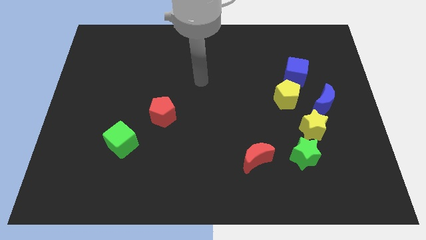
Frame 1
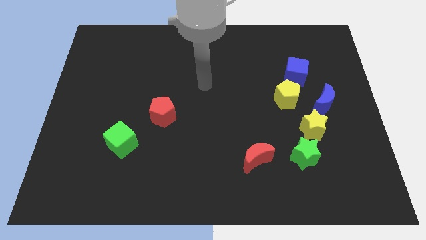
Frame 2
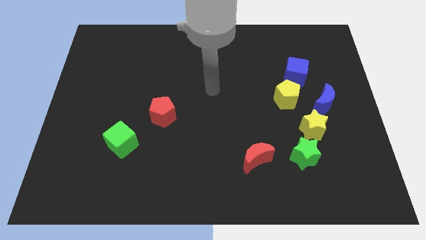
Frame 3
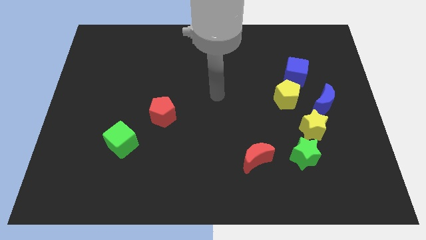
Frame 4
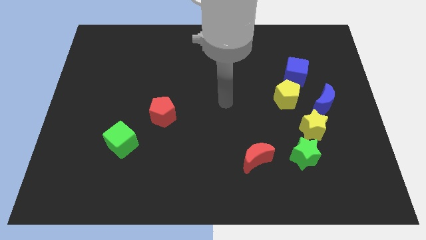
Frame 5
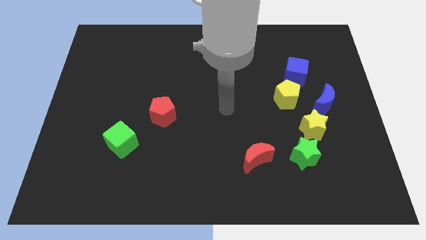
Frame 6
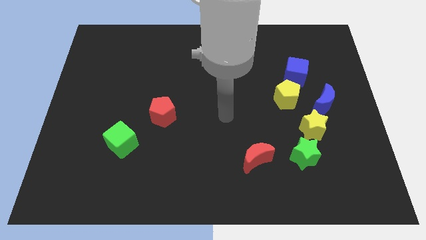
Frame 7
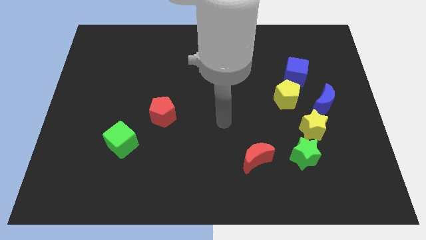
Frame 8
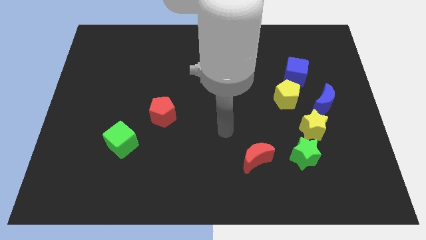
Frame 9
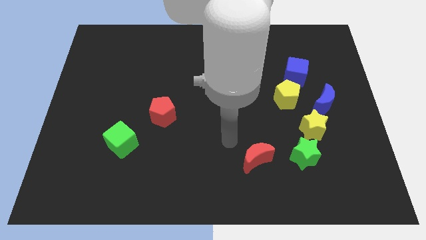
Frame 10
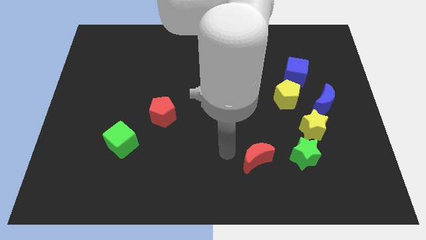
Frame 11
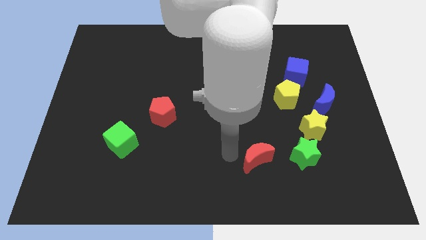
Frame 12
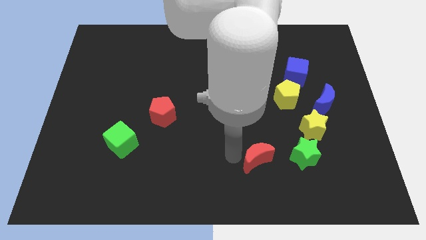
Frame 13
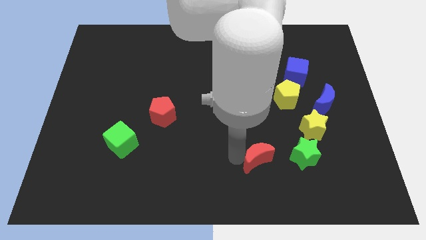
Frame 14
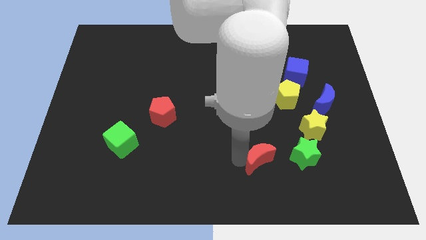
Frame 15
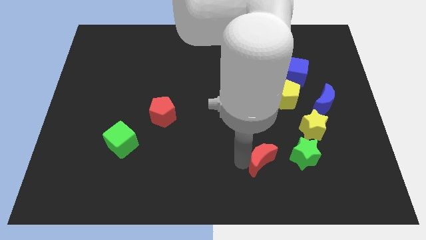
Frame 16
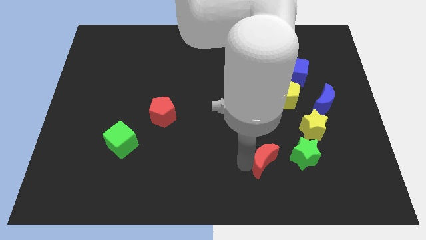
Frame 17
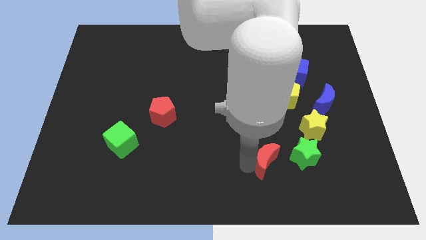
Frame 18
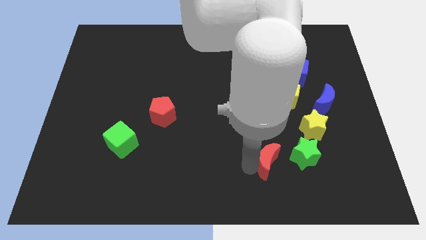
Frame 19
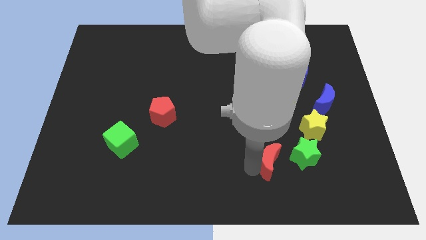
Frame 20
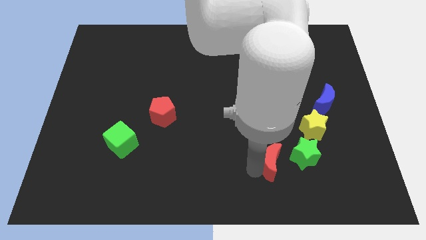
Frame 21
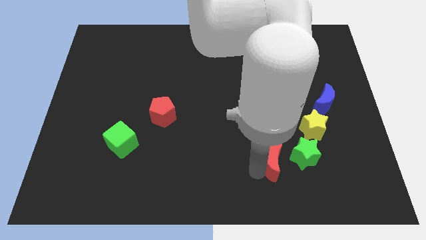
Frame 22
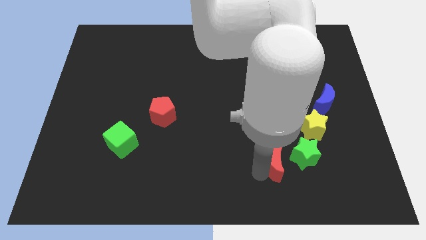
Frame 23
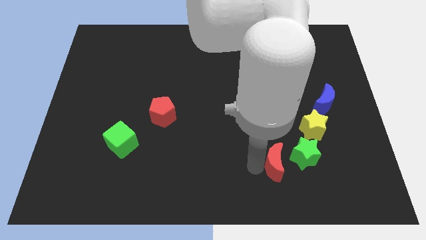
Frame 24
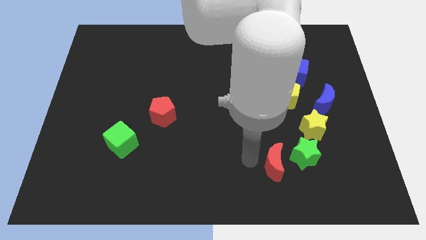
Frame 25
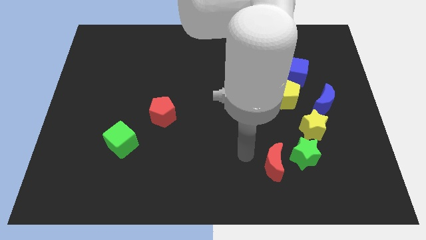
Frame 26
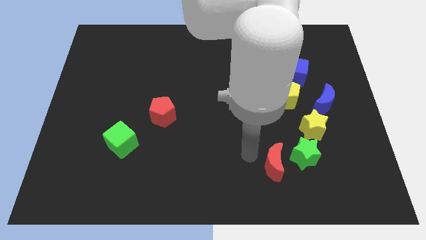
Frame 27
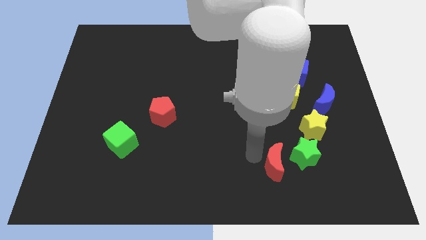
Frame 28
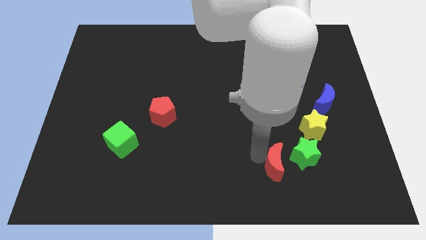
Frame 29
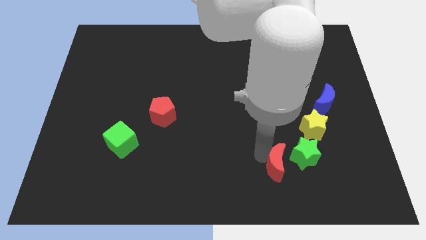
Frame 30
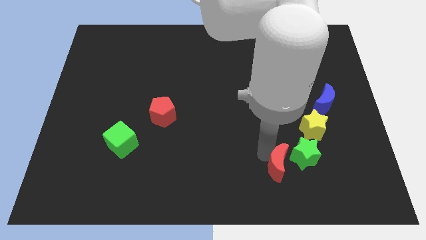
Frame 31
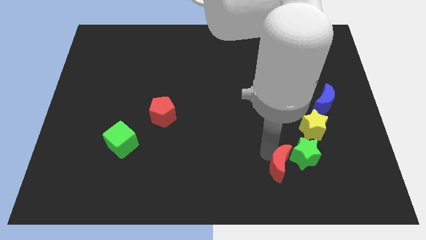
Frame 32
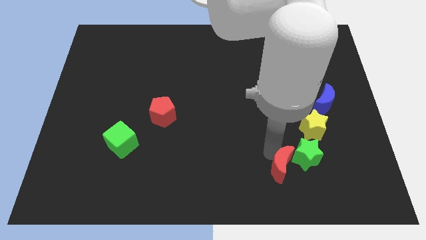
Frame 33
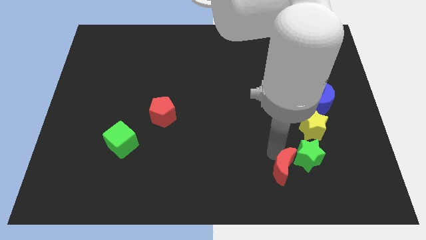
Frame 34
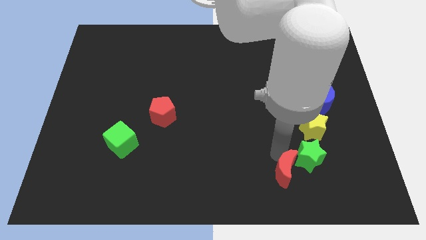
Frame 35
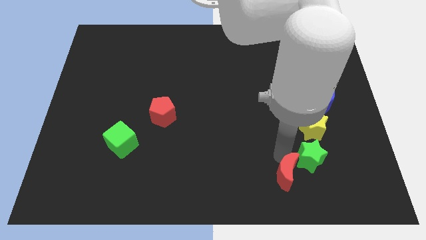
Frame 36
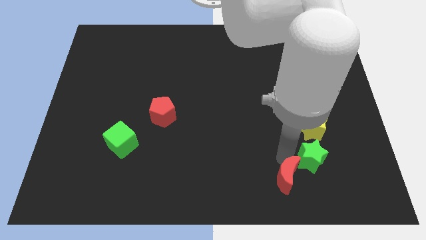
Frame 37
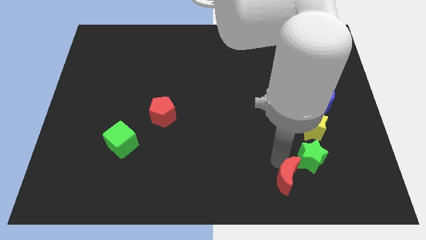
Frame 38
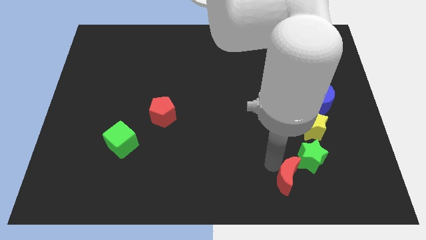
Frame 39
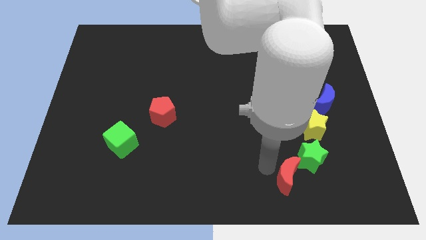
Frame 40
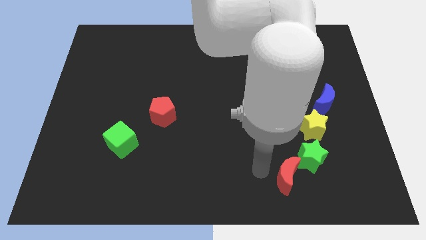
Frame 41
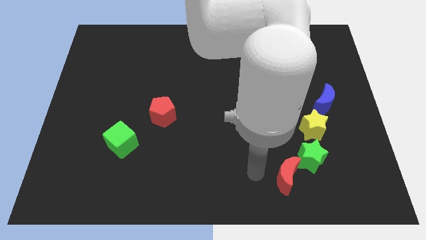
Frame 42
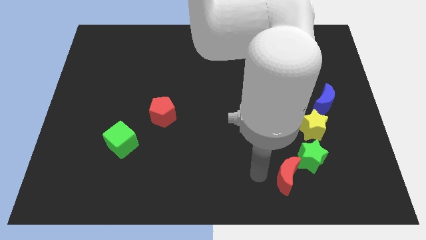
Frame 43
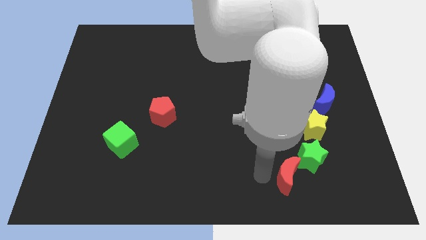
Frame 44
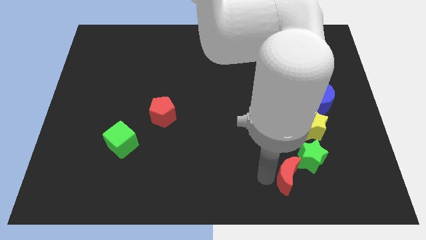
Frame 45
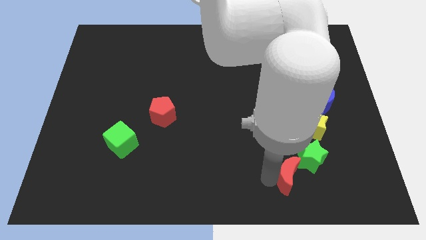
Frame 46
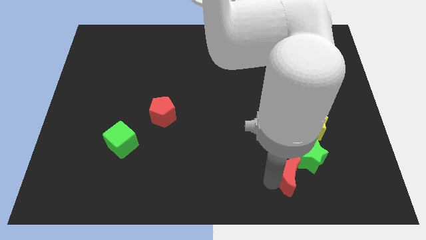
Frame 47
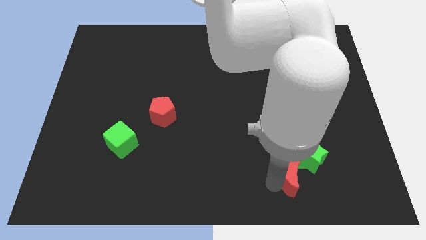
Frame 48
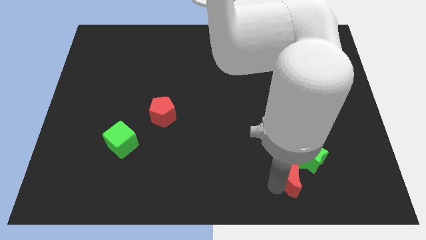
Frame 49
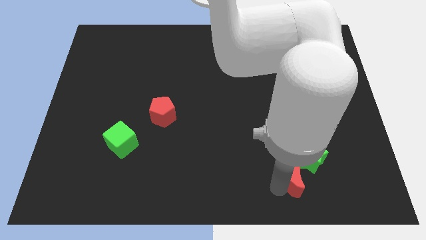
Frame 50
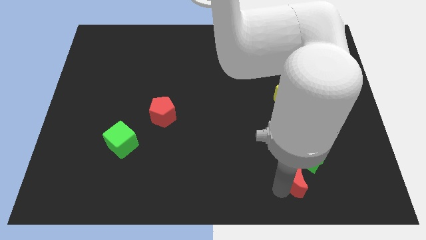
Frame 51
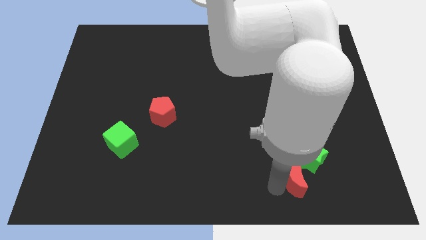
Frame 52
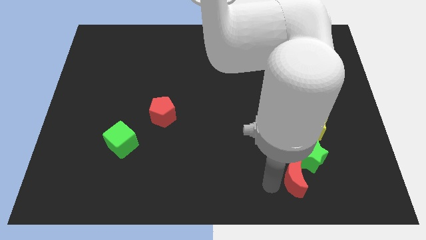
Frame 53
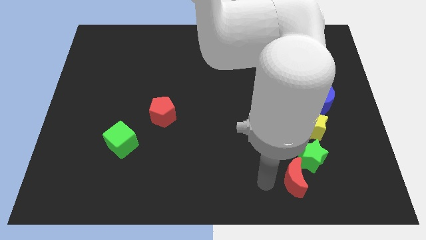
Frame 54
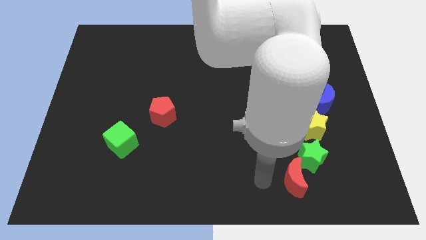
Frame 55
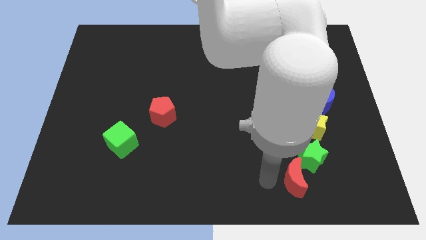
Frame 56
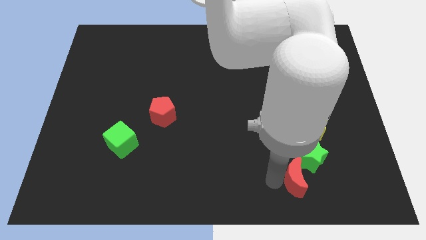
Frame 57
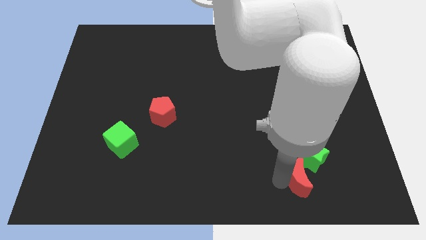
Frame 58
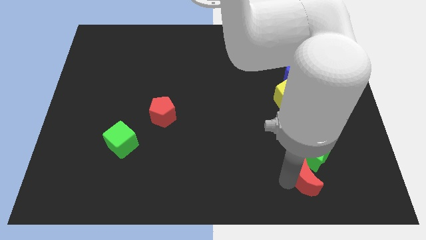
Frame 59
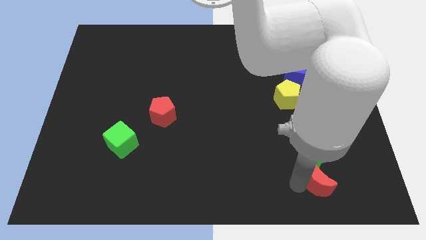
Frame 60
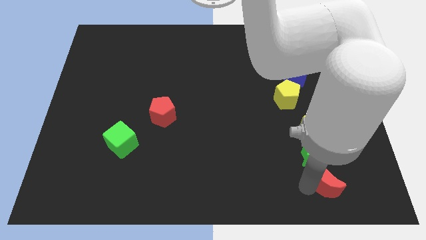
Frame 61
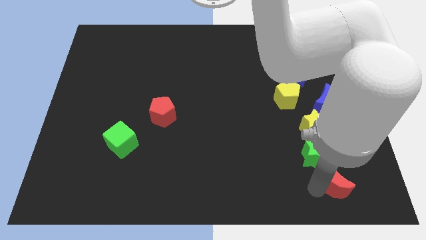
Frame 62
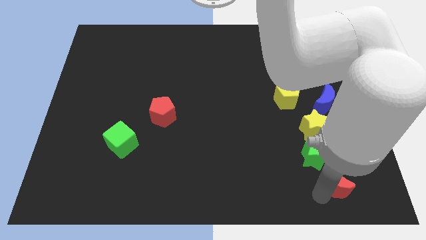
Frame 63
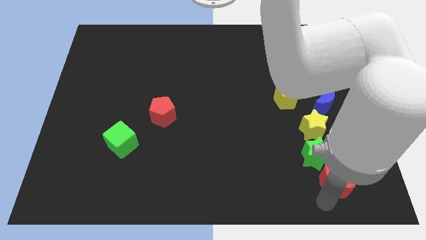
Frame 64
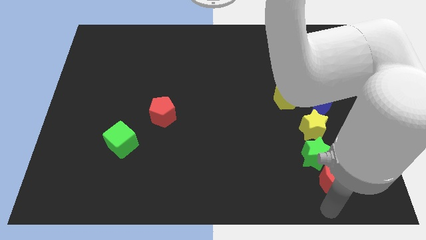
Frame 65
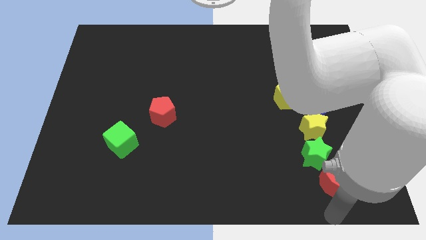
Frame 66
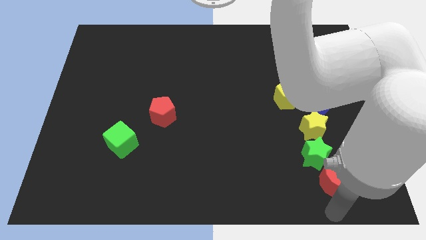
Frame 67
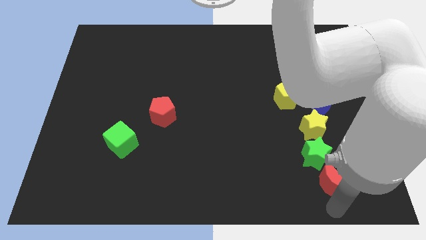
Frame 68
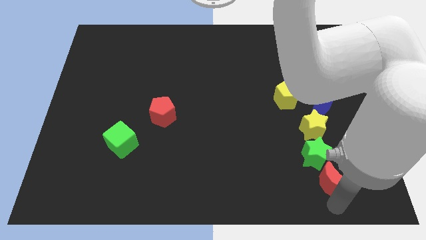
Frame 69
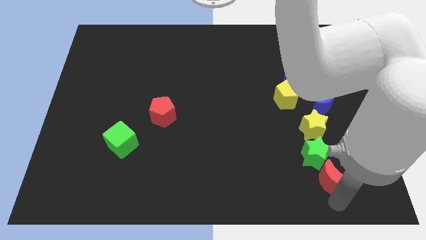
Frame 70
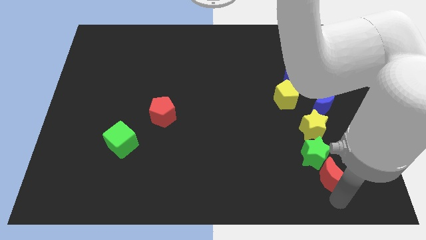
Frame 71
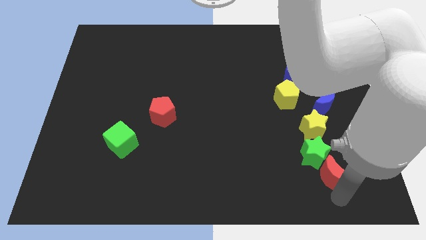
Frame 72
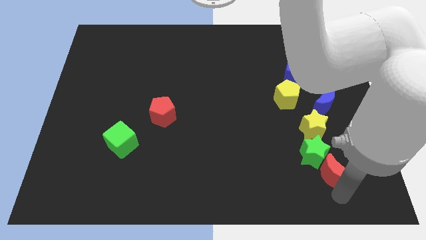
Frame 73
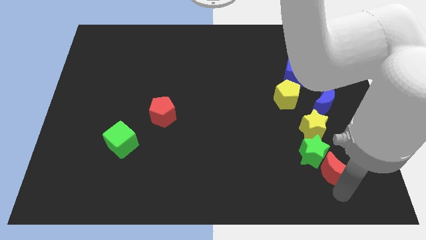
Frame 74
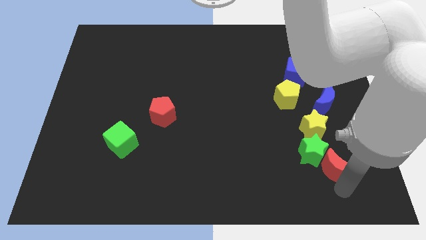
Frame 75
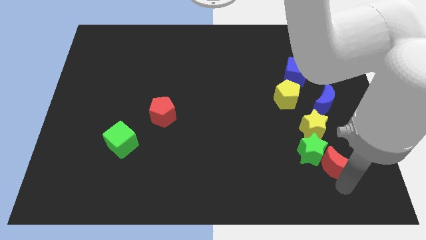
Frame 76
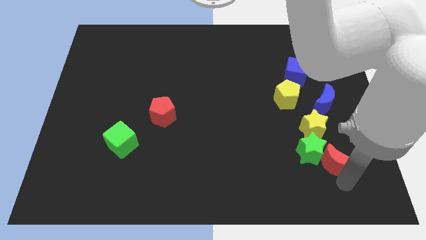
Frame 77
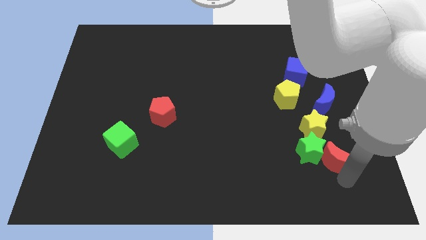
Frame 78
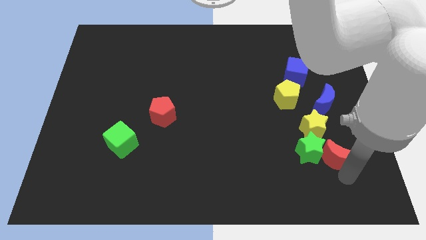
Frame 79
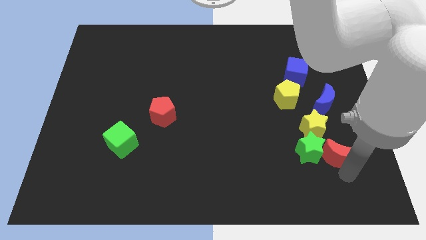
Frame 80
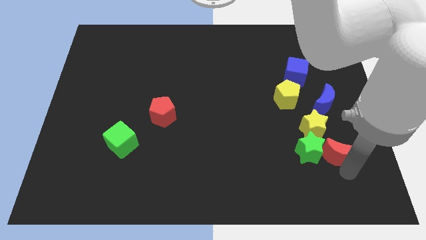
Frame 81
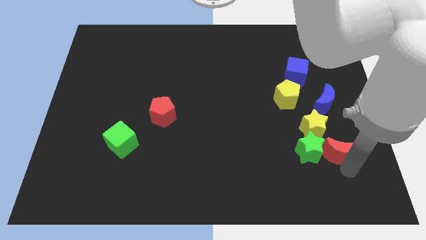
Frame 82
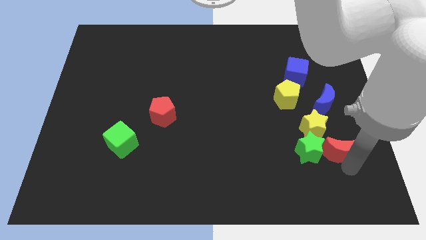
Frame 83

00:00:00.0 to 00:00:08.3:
put the red moon to the top right of the green star
